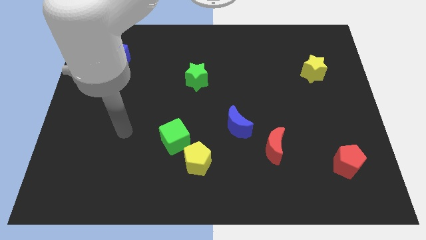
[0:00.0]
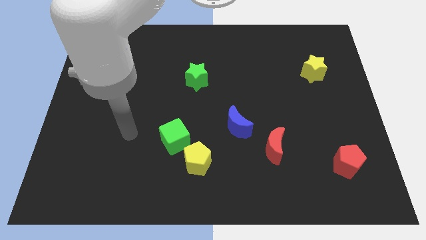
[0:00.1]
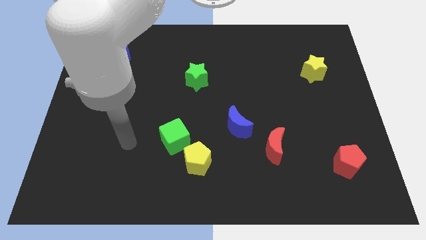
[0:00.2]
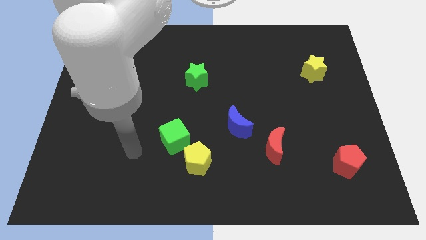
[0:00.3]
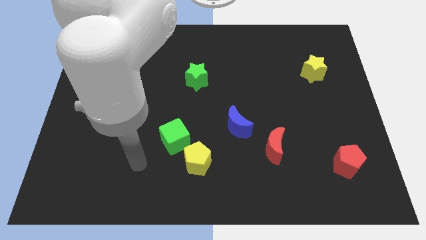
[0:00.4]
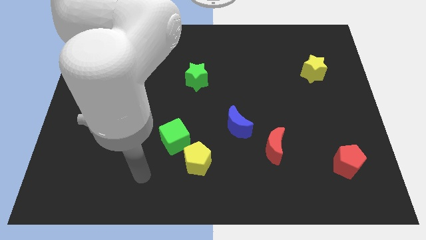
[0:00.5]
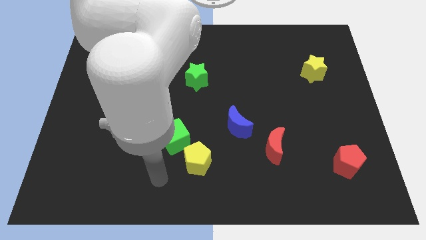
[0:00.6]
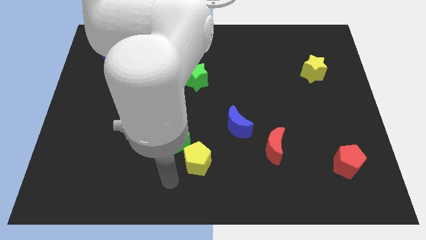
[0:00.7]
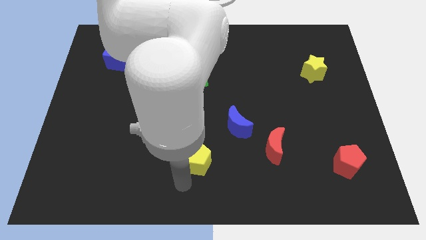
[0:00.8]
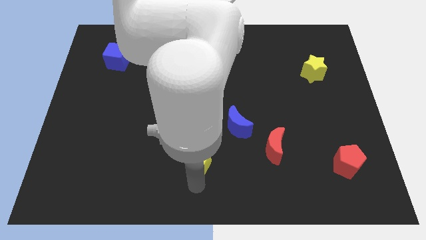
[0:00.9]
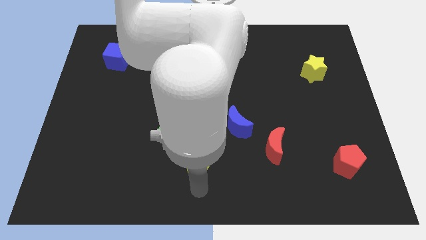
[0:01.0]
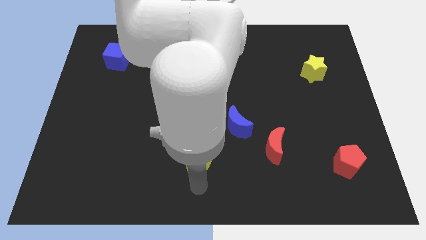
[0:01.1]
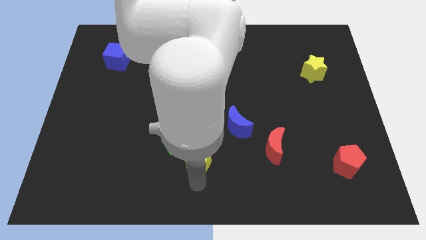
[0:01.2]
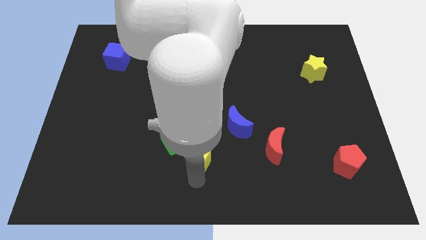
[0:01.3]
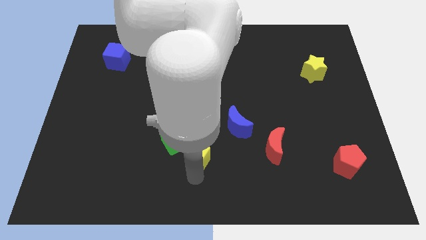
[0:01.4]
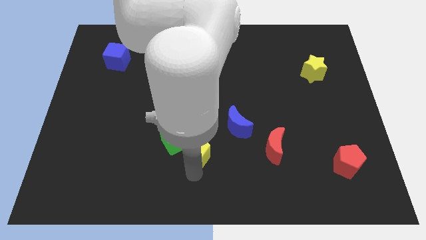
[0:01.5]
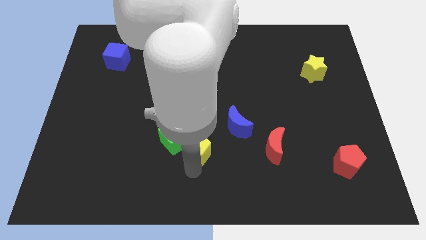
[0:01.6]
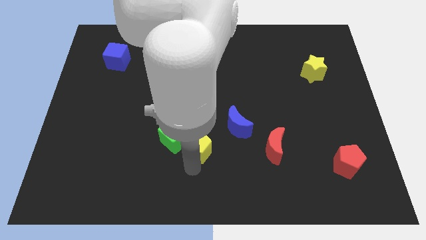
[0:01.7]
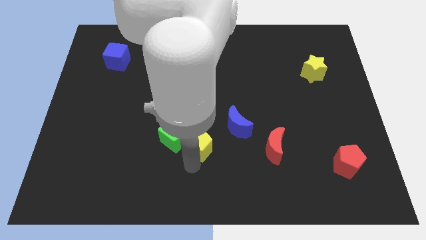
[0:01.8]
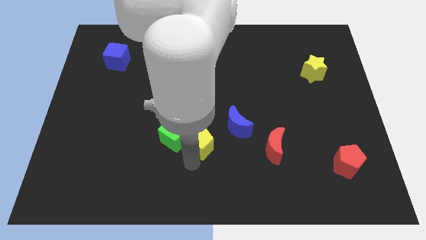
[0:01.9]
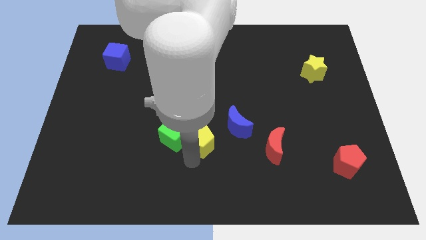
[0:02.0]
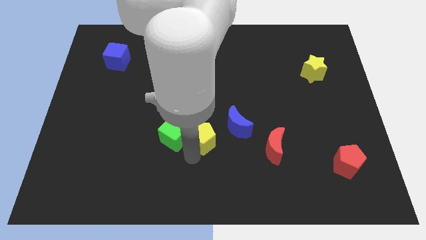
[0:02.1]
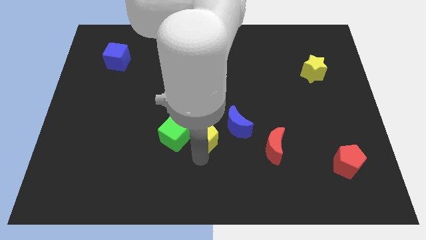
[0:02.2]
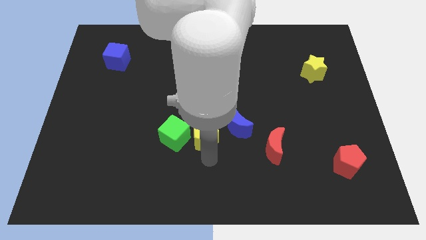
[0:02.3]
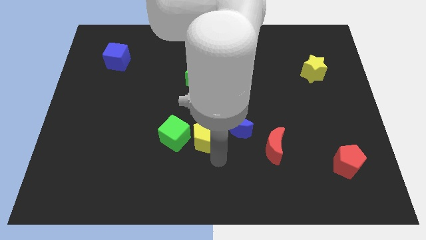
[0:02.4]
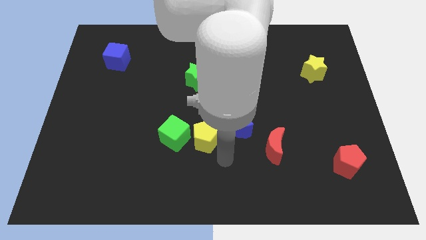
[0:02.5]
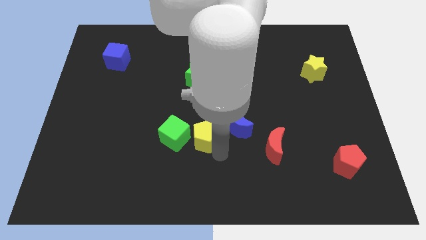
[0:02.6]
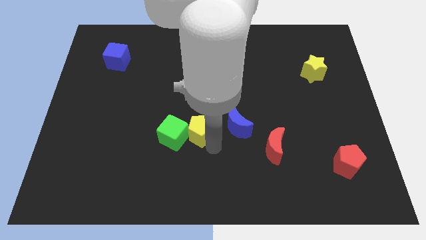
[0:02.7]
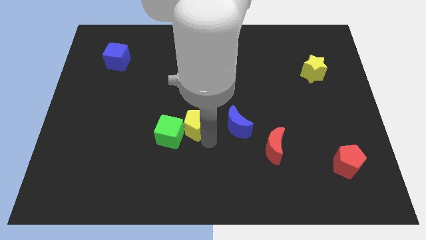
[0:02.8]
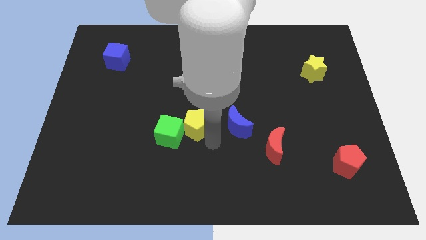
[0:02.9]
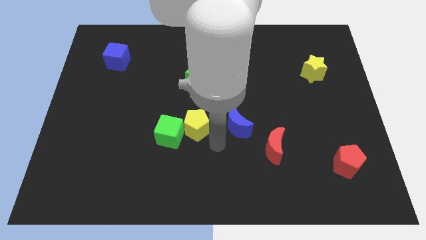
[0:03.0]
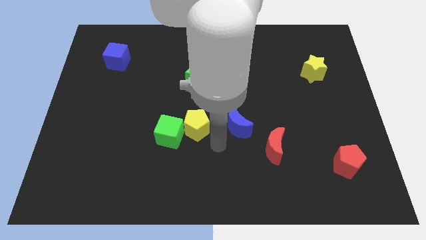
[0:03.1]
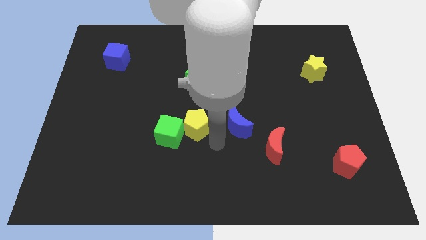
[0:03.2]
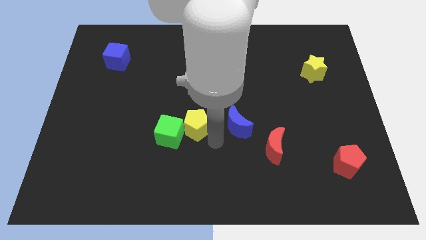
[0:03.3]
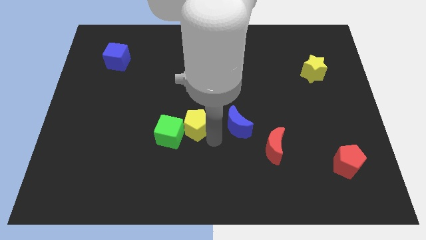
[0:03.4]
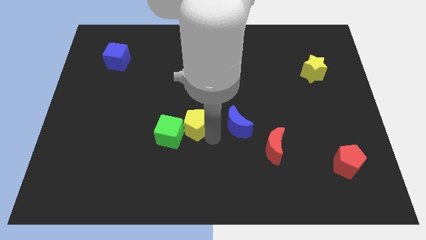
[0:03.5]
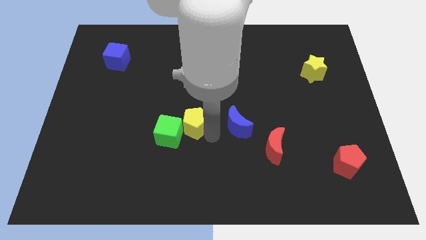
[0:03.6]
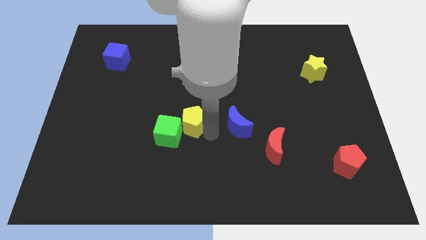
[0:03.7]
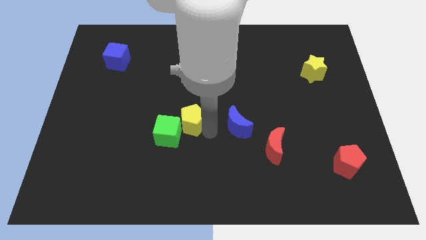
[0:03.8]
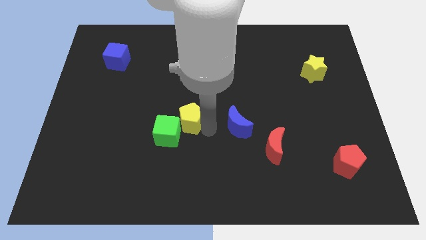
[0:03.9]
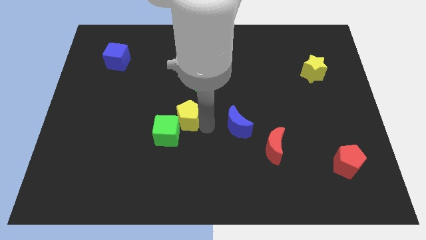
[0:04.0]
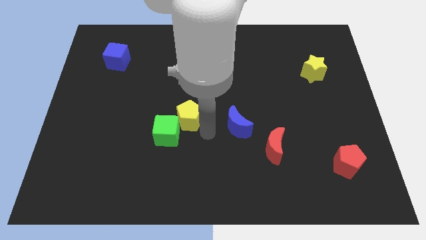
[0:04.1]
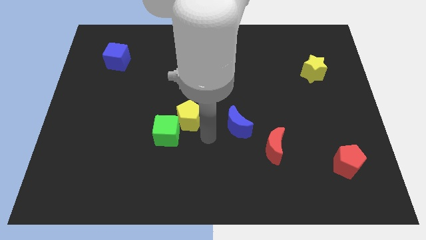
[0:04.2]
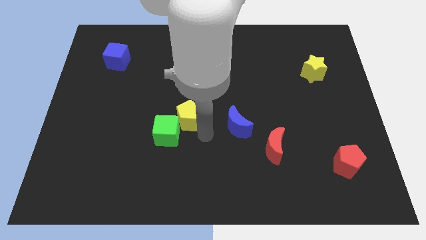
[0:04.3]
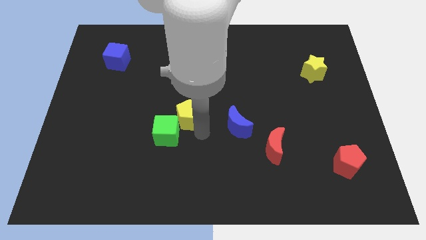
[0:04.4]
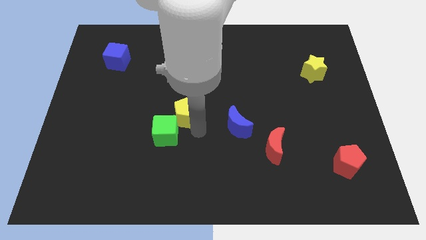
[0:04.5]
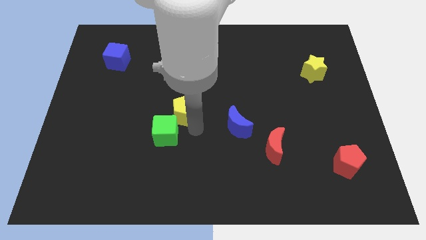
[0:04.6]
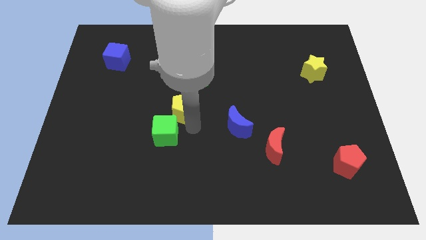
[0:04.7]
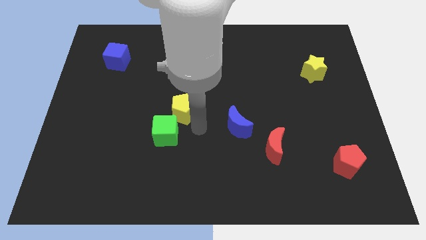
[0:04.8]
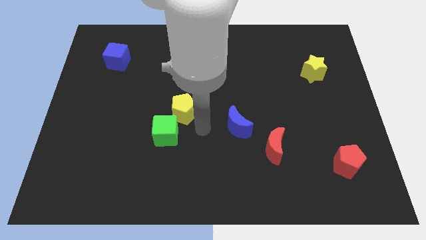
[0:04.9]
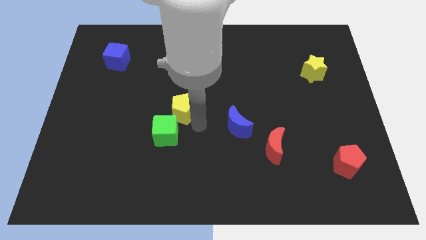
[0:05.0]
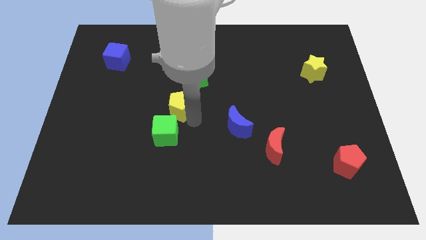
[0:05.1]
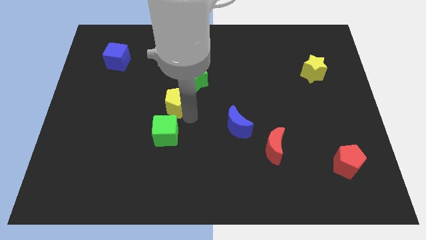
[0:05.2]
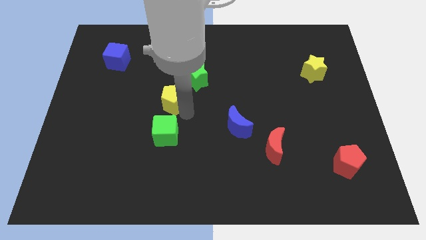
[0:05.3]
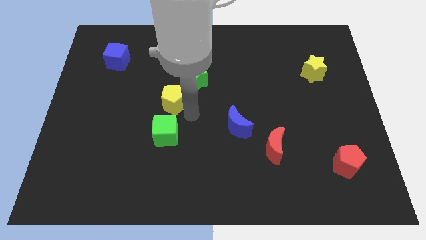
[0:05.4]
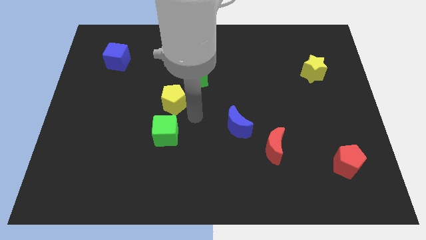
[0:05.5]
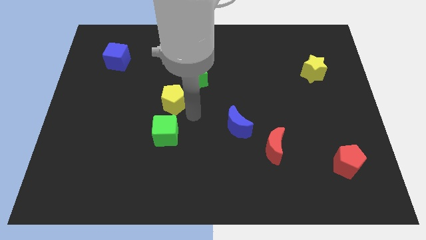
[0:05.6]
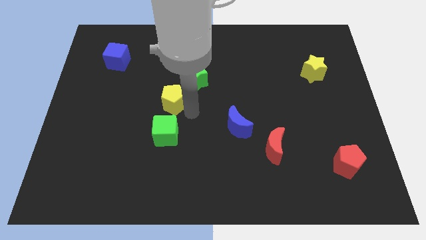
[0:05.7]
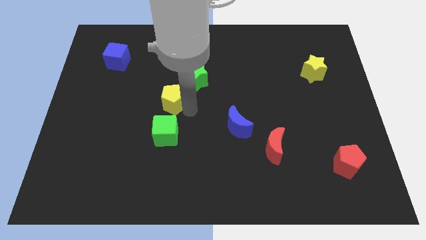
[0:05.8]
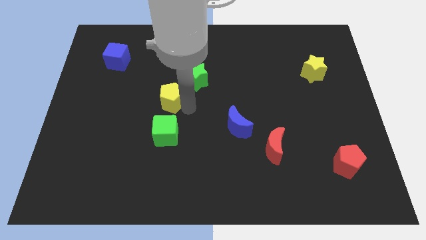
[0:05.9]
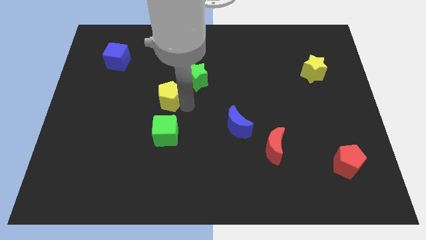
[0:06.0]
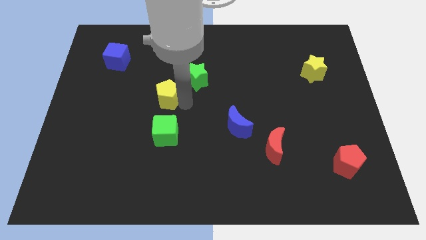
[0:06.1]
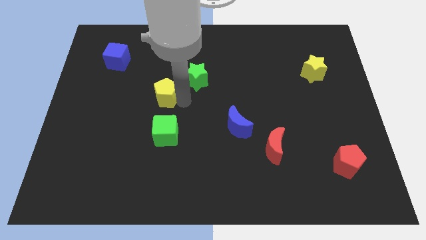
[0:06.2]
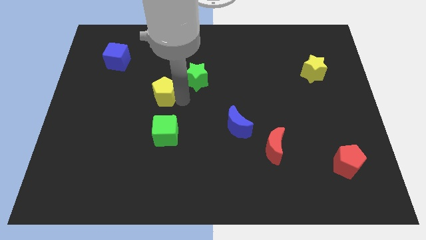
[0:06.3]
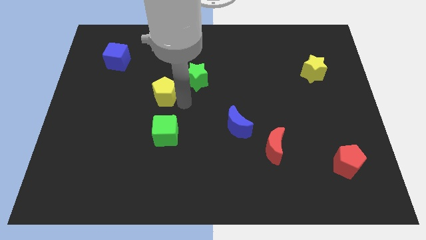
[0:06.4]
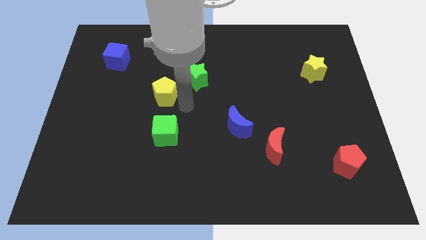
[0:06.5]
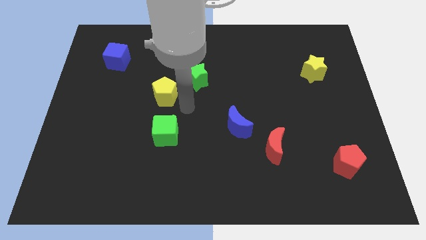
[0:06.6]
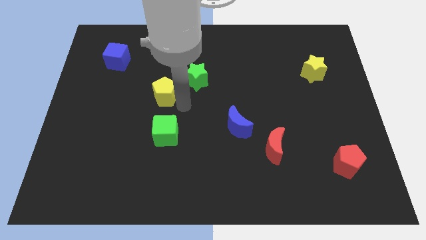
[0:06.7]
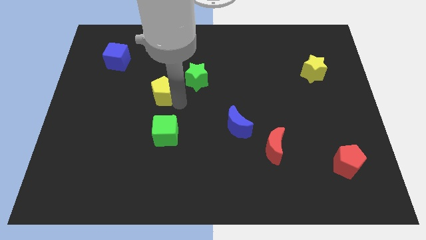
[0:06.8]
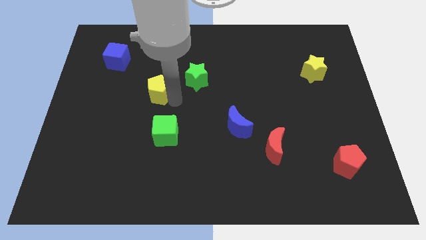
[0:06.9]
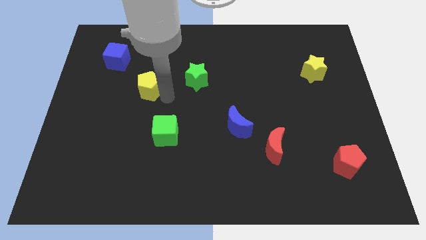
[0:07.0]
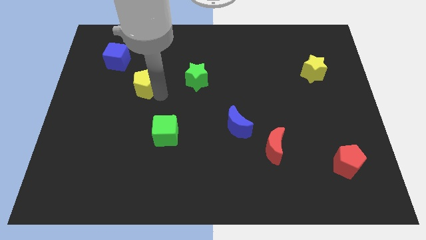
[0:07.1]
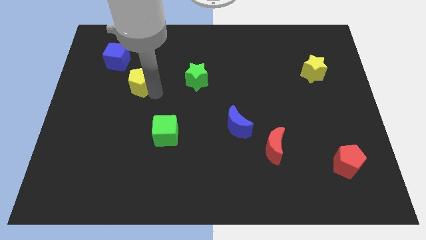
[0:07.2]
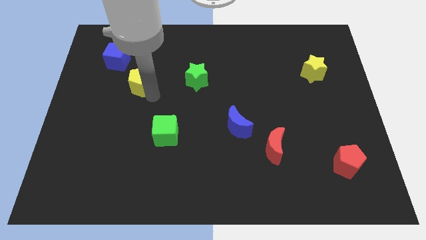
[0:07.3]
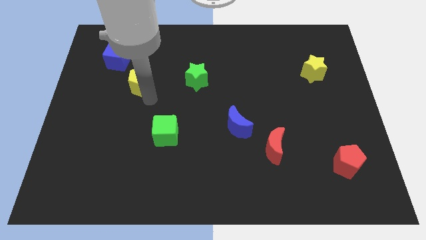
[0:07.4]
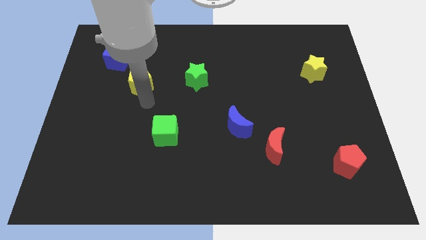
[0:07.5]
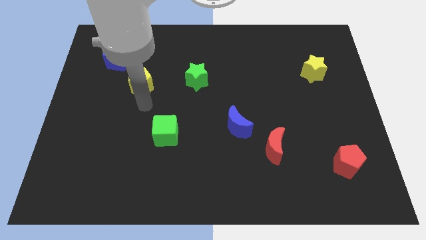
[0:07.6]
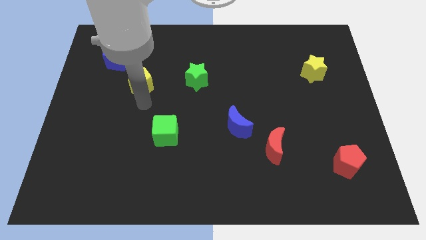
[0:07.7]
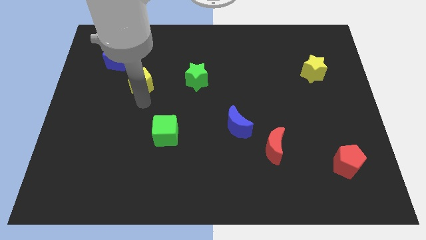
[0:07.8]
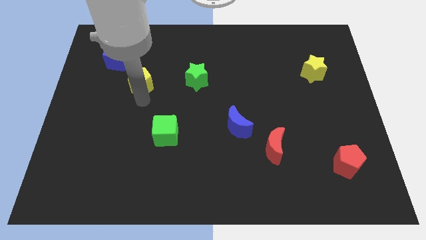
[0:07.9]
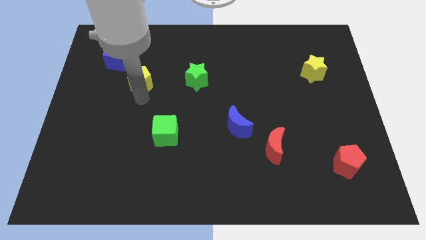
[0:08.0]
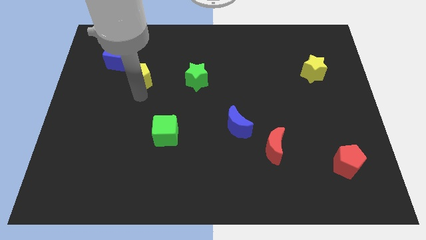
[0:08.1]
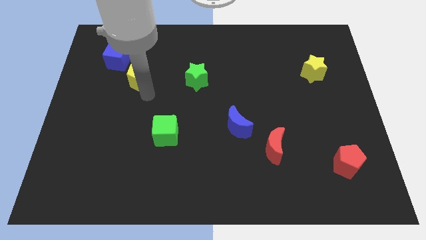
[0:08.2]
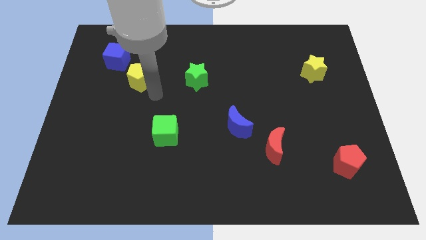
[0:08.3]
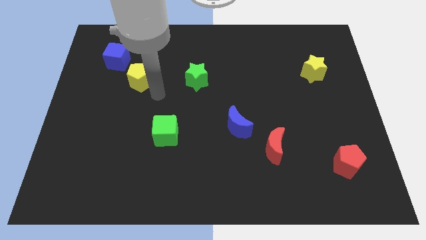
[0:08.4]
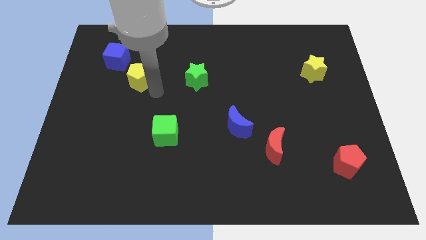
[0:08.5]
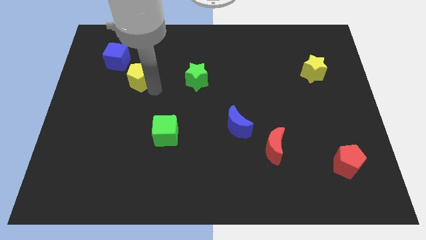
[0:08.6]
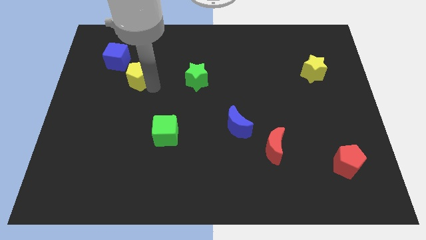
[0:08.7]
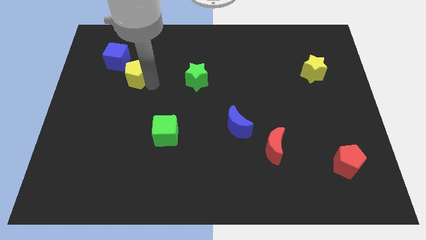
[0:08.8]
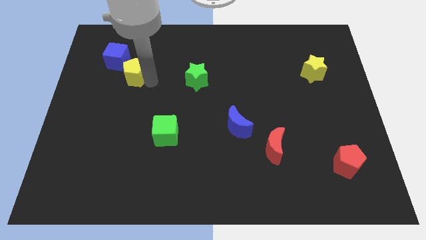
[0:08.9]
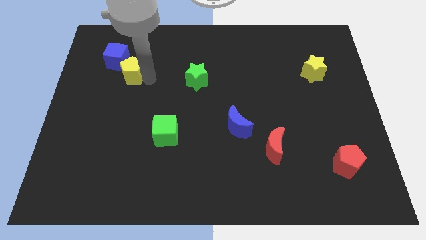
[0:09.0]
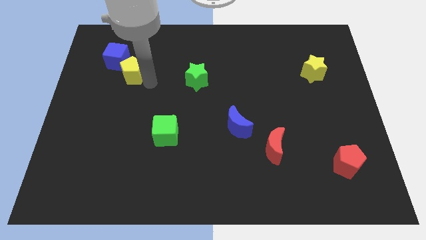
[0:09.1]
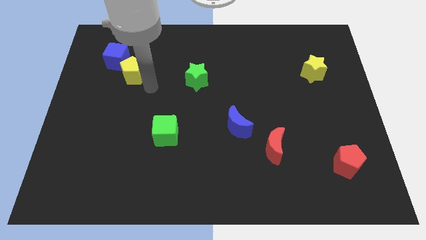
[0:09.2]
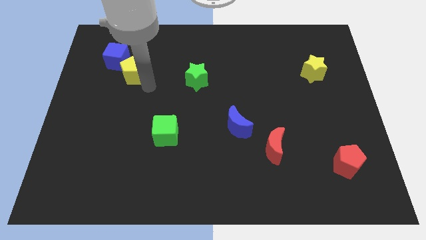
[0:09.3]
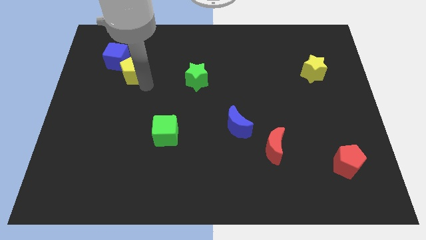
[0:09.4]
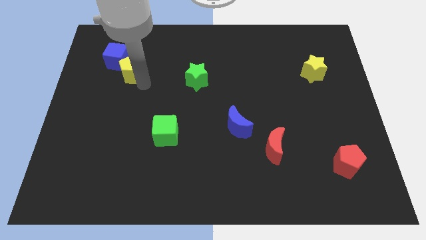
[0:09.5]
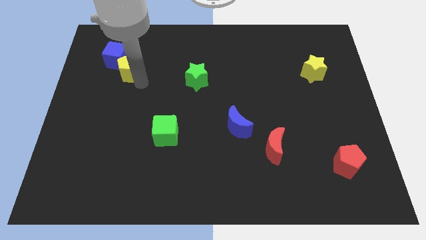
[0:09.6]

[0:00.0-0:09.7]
slide the yellow pentagon towards the blue cube
